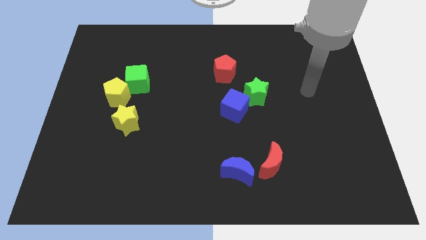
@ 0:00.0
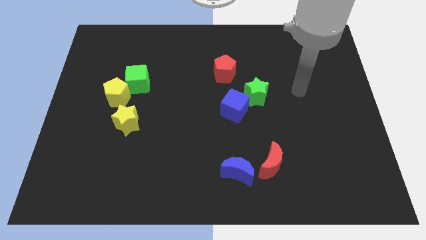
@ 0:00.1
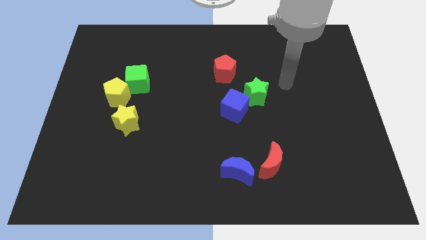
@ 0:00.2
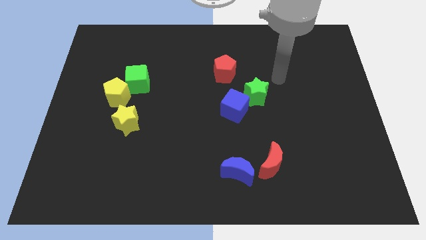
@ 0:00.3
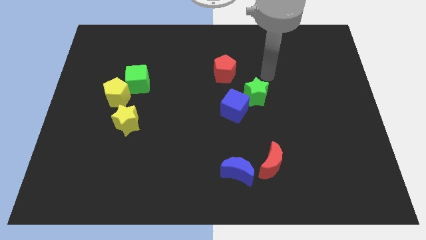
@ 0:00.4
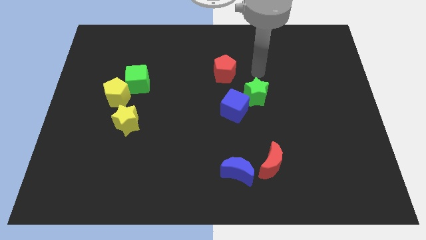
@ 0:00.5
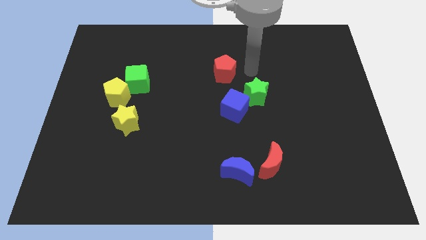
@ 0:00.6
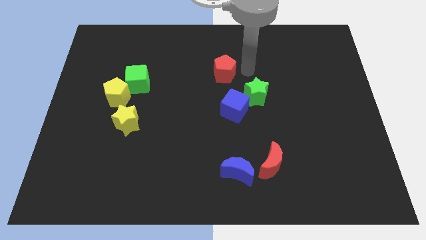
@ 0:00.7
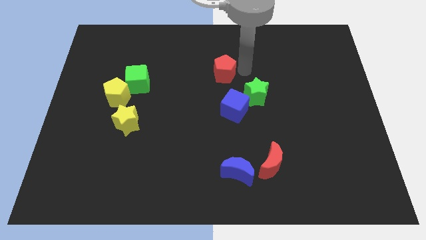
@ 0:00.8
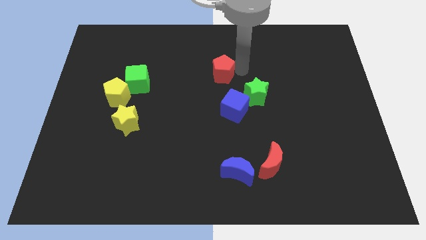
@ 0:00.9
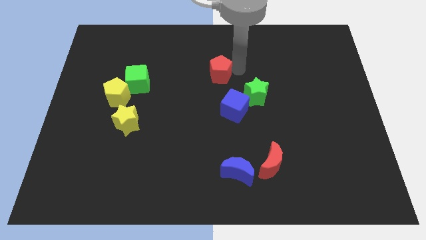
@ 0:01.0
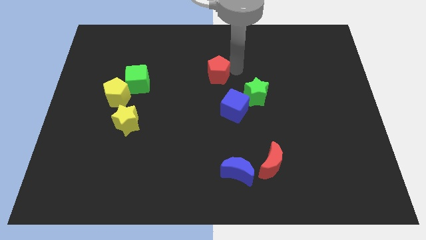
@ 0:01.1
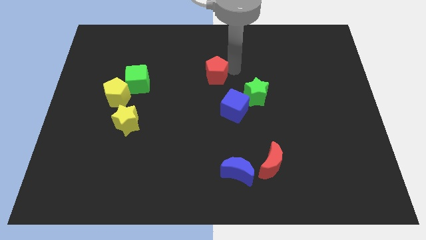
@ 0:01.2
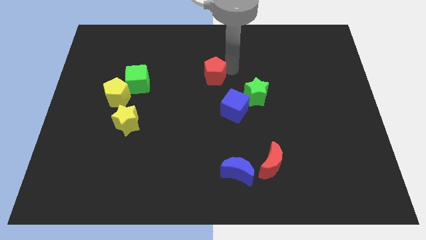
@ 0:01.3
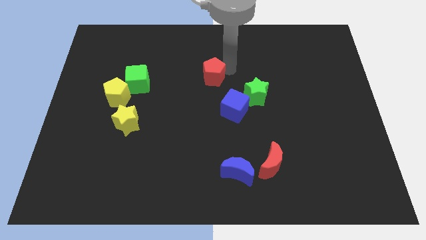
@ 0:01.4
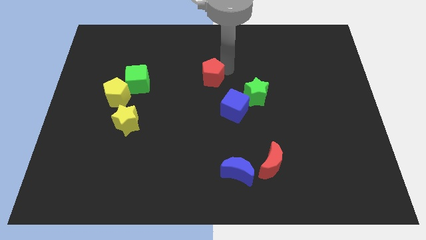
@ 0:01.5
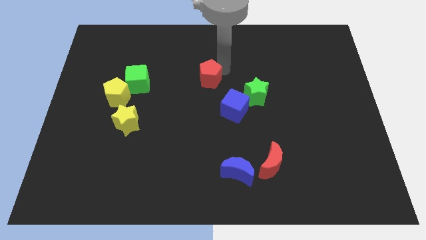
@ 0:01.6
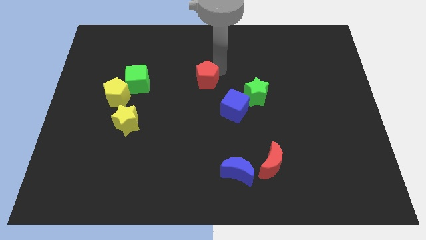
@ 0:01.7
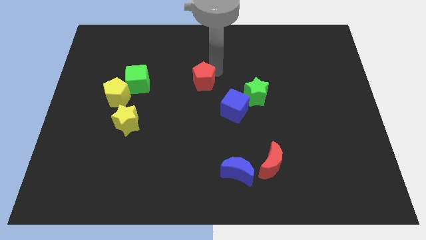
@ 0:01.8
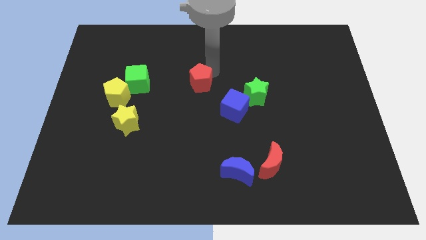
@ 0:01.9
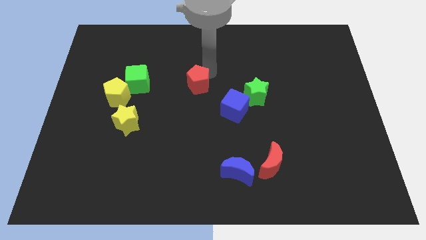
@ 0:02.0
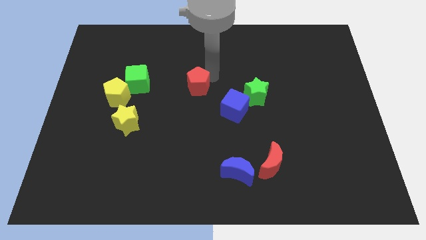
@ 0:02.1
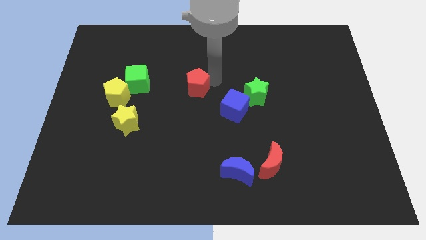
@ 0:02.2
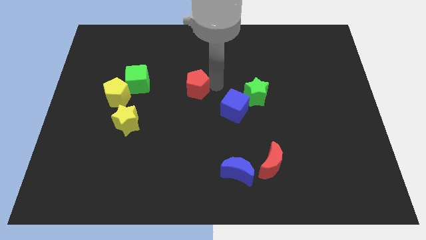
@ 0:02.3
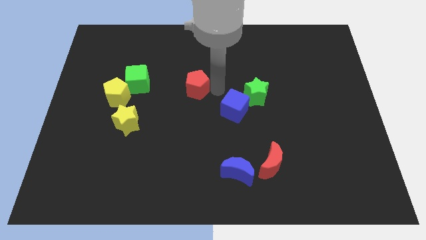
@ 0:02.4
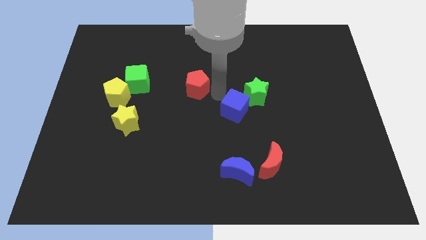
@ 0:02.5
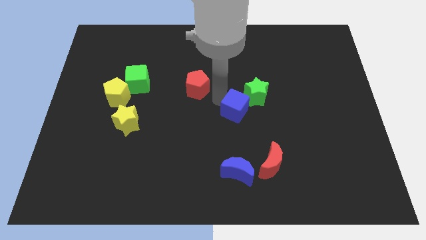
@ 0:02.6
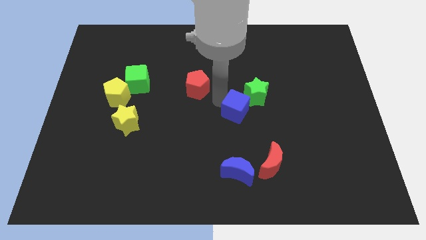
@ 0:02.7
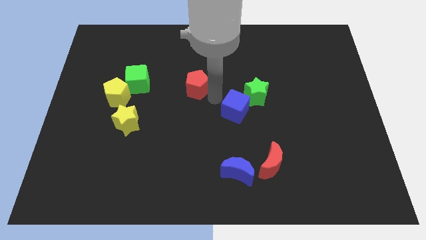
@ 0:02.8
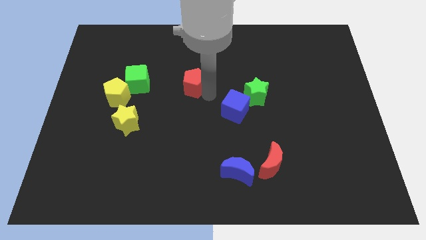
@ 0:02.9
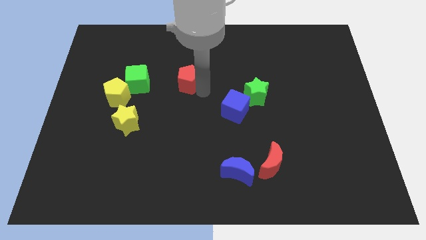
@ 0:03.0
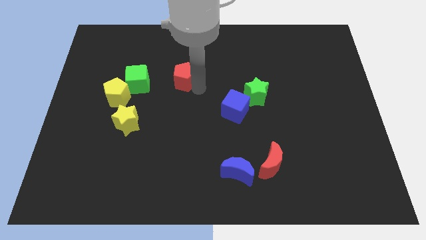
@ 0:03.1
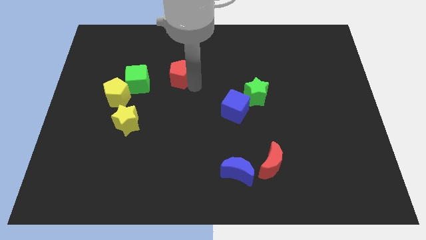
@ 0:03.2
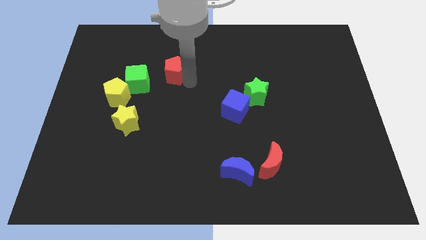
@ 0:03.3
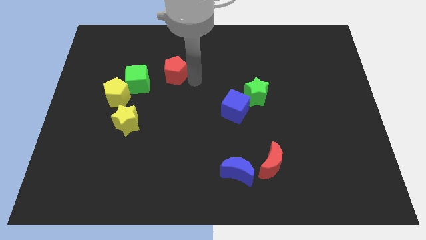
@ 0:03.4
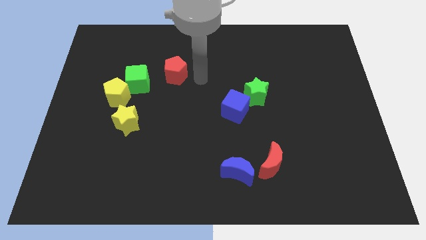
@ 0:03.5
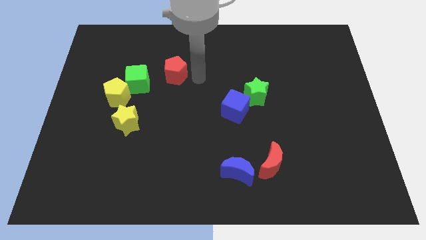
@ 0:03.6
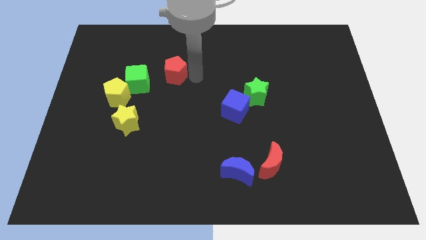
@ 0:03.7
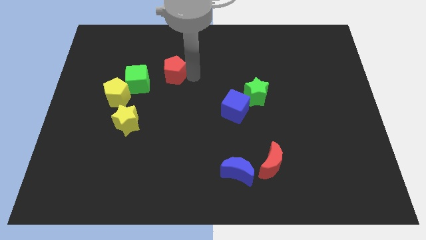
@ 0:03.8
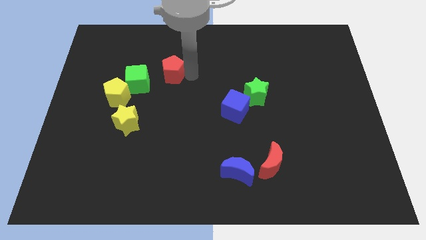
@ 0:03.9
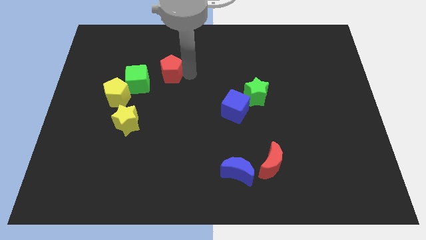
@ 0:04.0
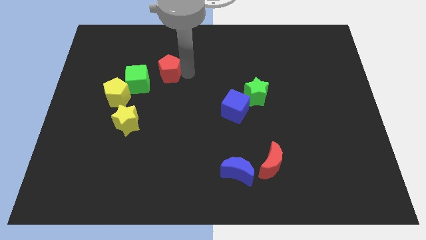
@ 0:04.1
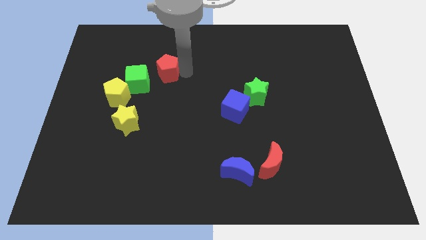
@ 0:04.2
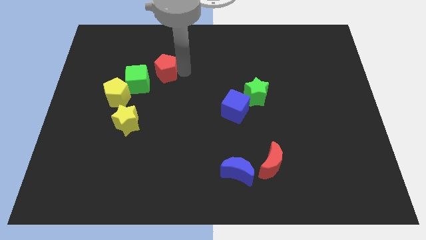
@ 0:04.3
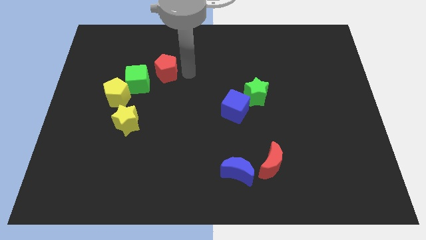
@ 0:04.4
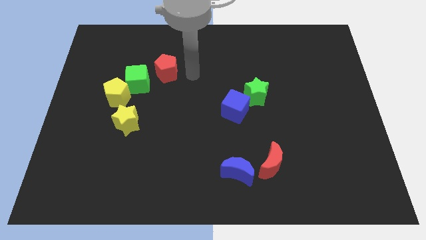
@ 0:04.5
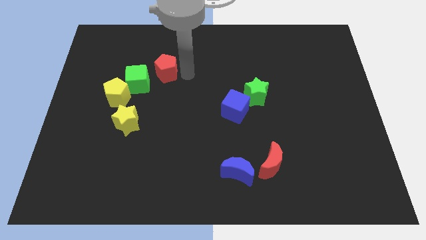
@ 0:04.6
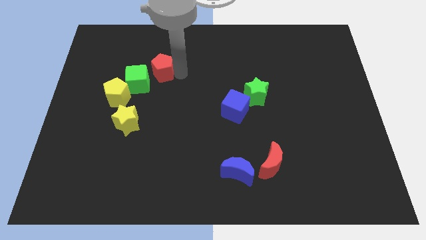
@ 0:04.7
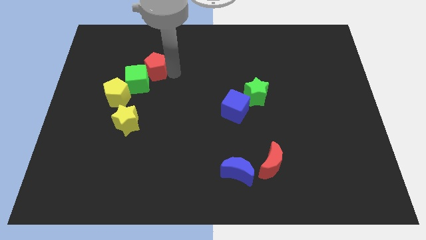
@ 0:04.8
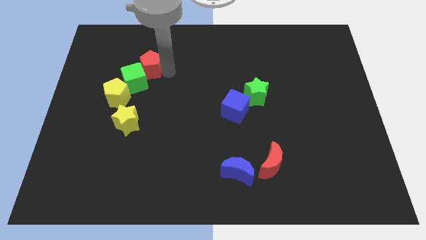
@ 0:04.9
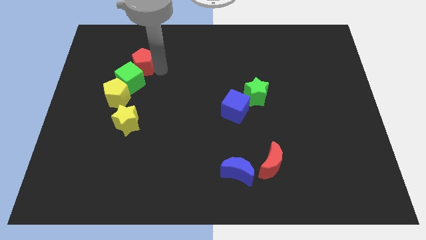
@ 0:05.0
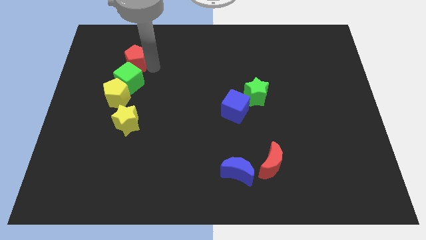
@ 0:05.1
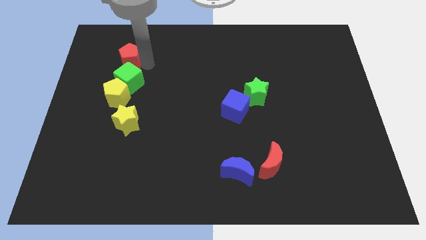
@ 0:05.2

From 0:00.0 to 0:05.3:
put the red pentagon to the top left side of the green cube

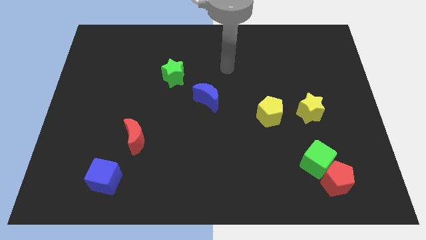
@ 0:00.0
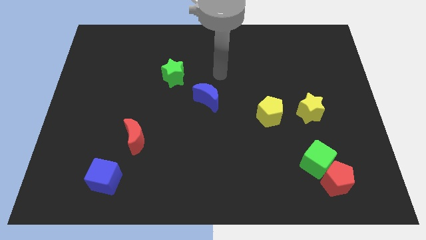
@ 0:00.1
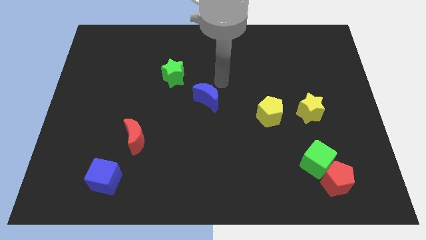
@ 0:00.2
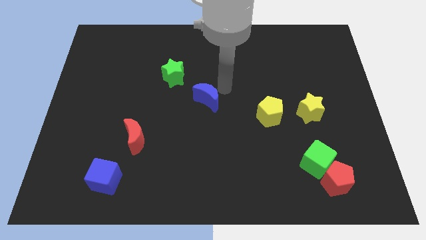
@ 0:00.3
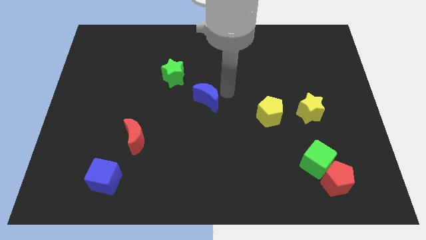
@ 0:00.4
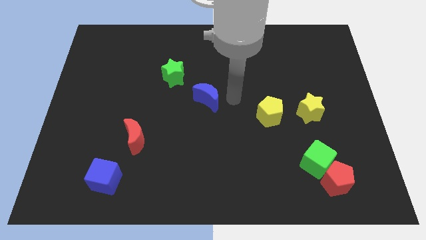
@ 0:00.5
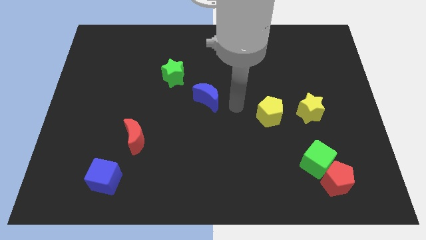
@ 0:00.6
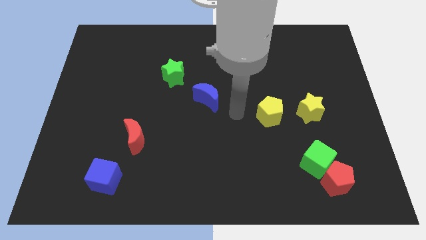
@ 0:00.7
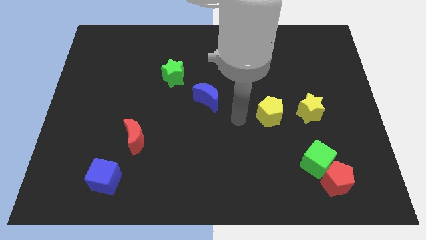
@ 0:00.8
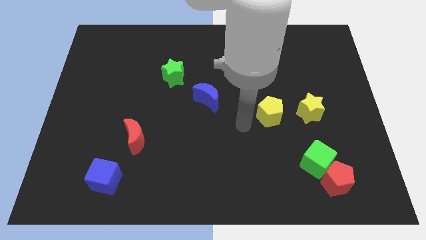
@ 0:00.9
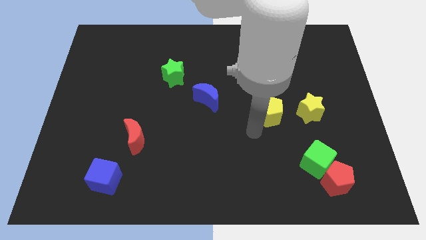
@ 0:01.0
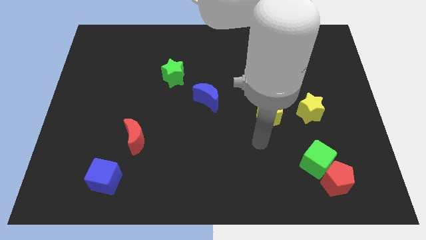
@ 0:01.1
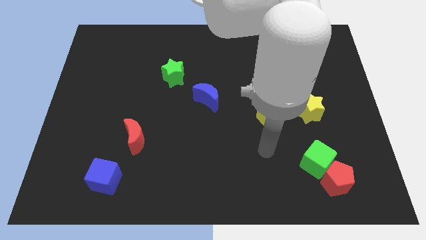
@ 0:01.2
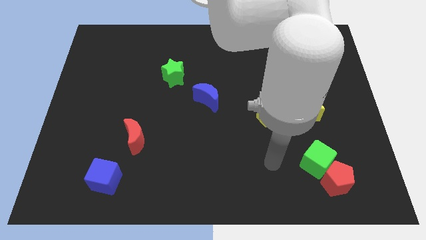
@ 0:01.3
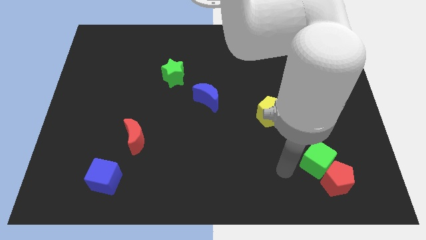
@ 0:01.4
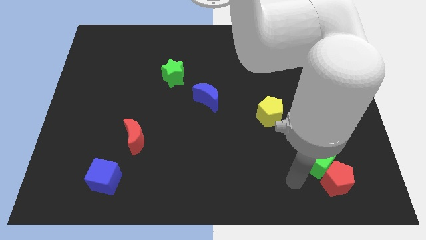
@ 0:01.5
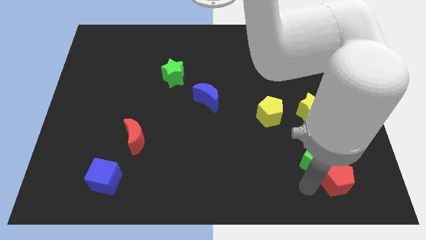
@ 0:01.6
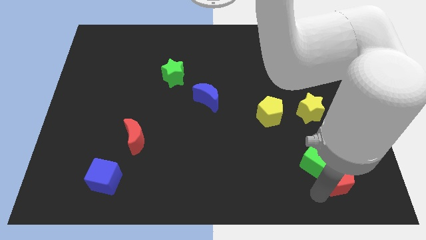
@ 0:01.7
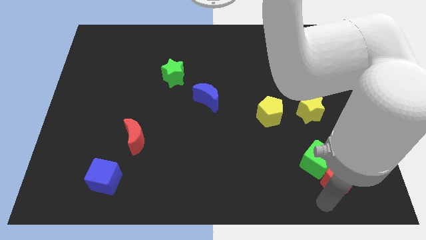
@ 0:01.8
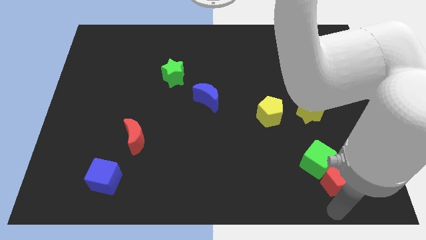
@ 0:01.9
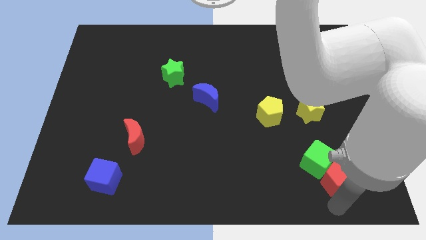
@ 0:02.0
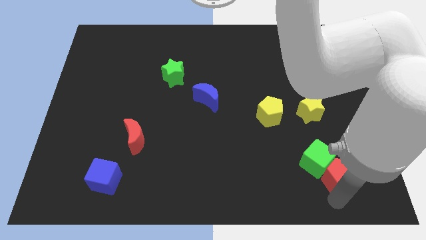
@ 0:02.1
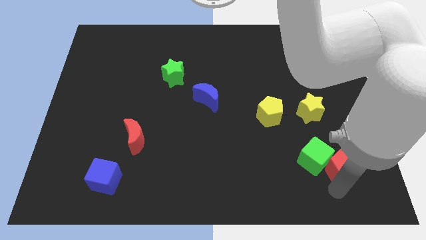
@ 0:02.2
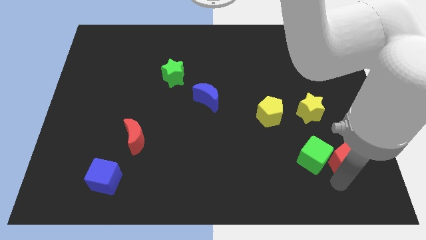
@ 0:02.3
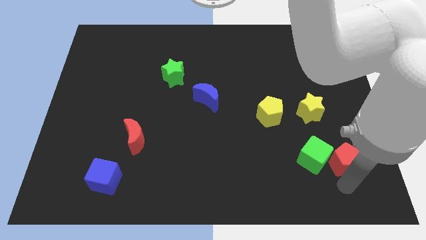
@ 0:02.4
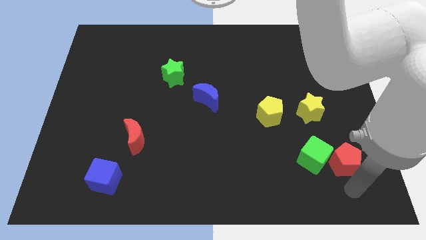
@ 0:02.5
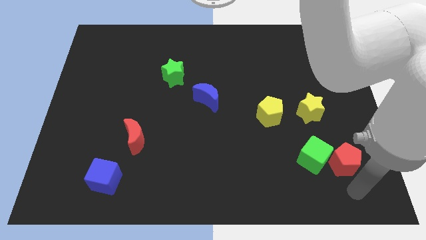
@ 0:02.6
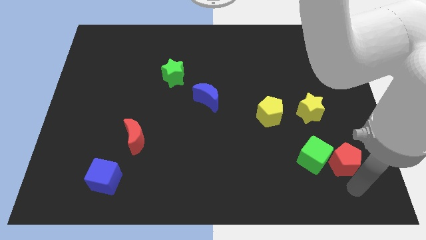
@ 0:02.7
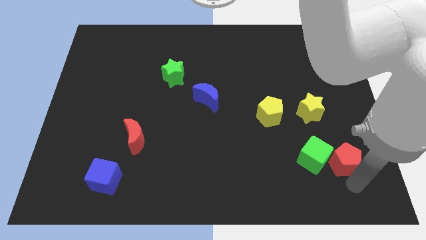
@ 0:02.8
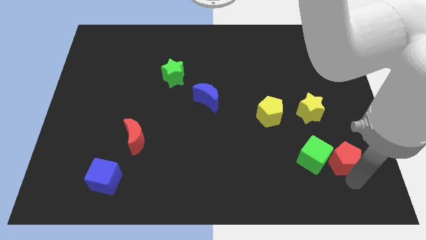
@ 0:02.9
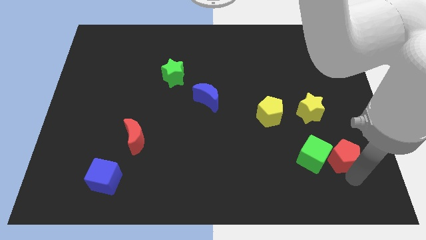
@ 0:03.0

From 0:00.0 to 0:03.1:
put the red pentagon diagonally up and to the right of the green cube
